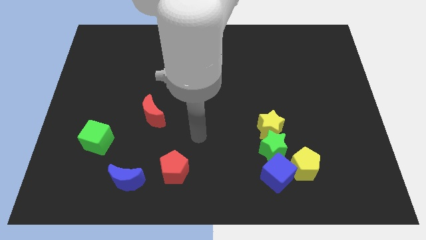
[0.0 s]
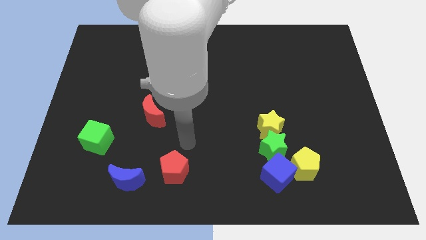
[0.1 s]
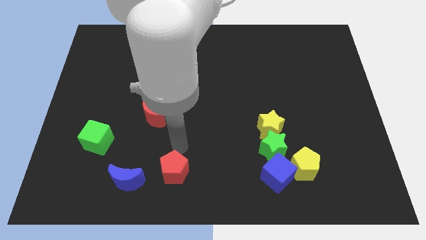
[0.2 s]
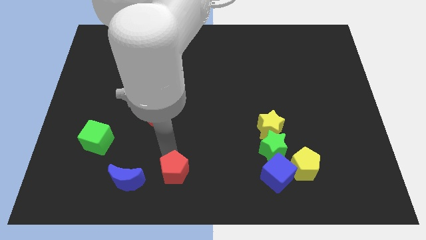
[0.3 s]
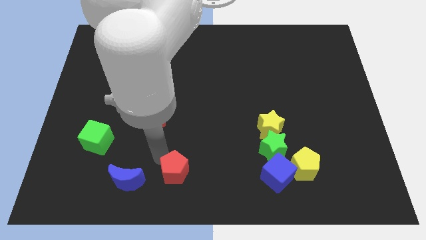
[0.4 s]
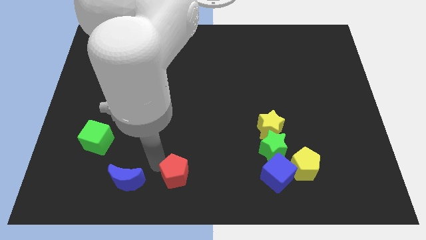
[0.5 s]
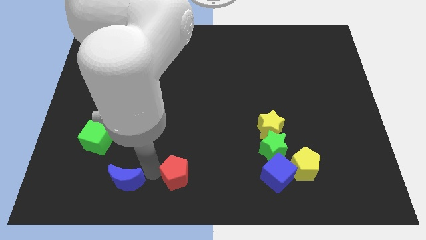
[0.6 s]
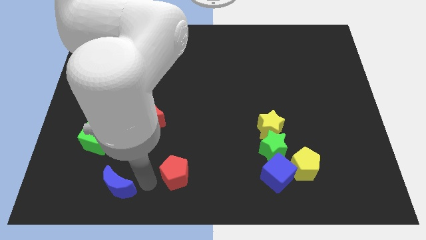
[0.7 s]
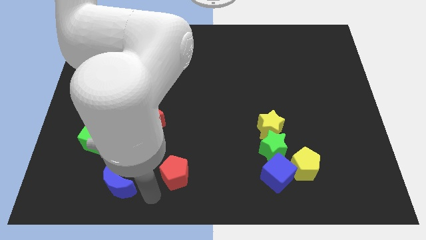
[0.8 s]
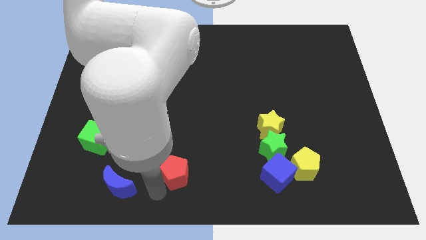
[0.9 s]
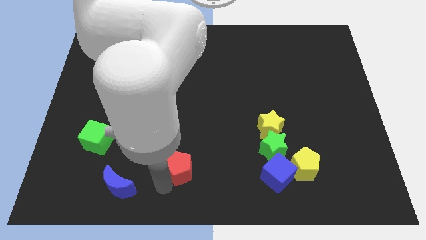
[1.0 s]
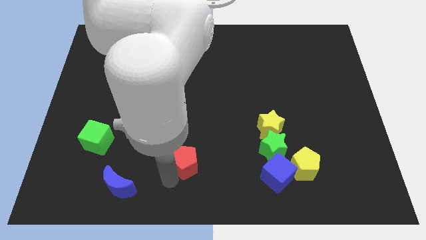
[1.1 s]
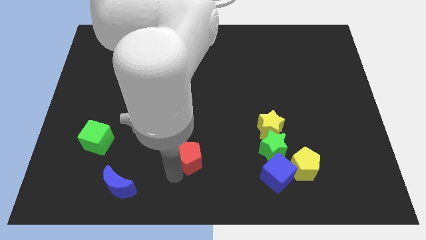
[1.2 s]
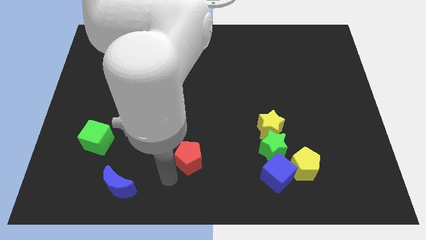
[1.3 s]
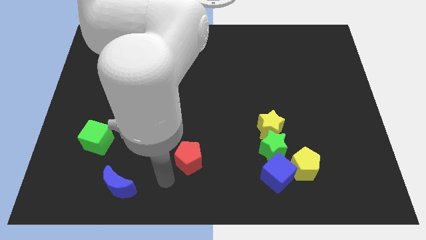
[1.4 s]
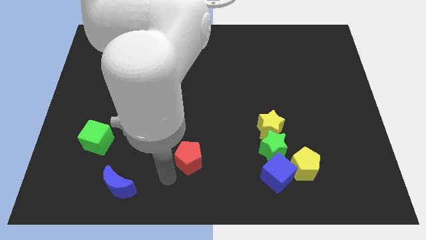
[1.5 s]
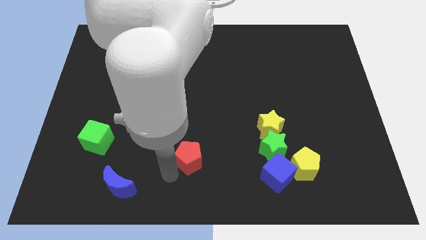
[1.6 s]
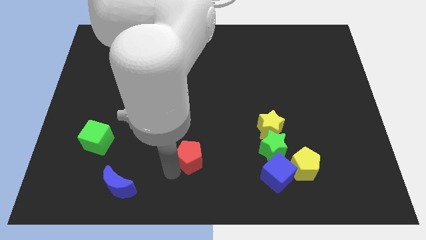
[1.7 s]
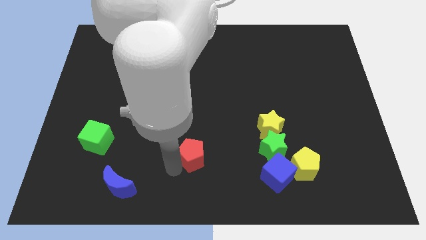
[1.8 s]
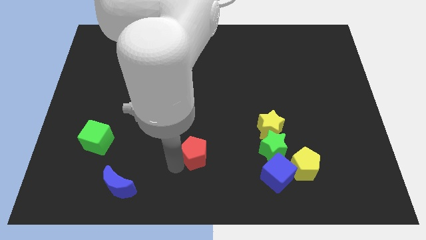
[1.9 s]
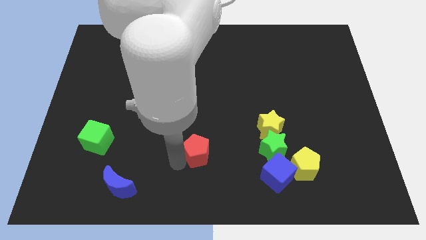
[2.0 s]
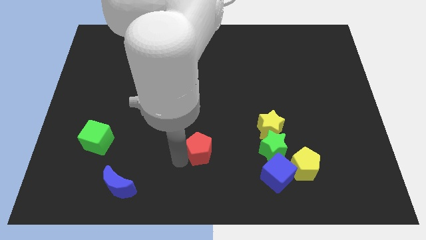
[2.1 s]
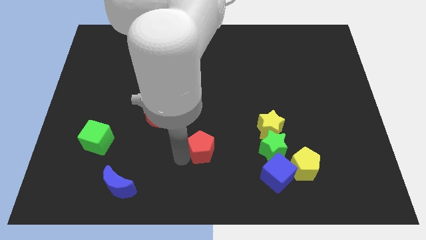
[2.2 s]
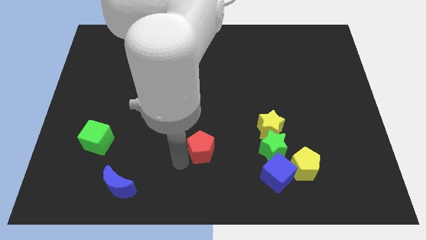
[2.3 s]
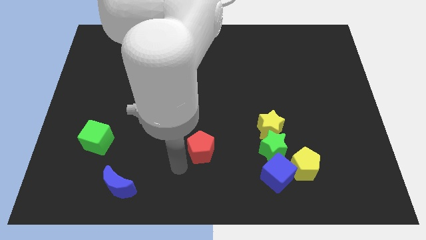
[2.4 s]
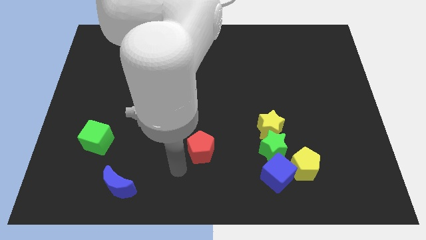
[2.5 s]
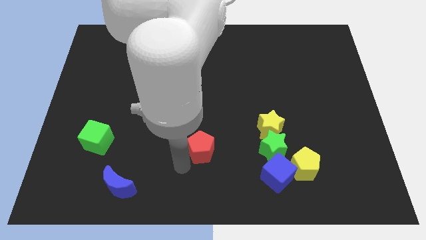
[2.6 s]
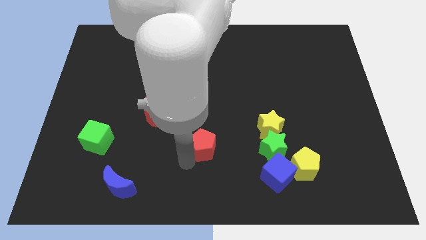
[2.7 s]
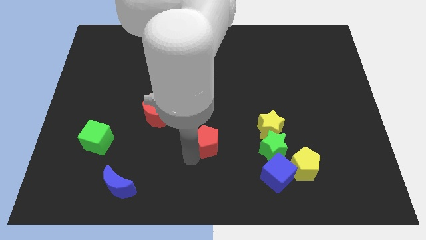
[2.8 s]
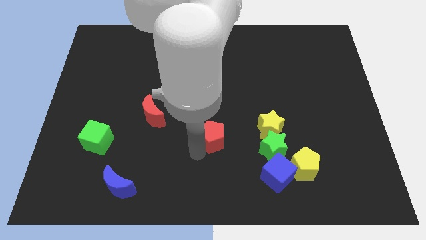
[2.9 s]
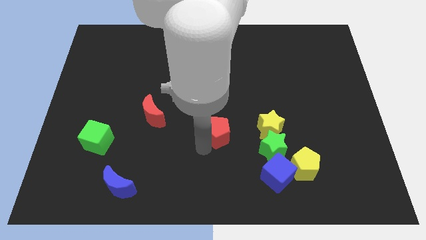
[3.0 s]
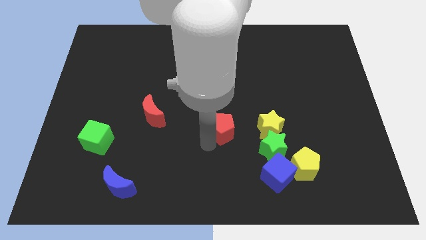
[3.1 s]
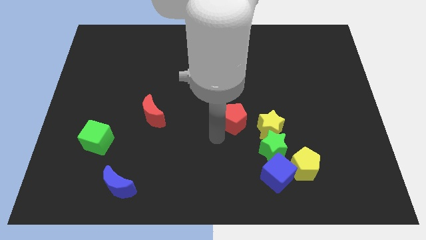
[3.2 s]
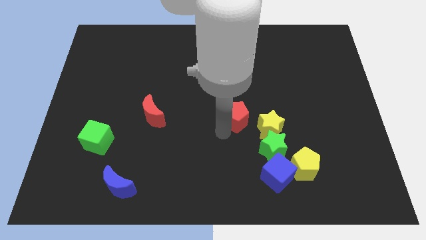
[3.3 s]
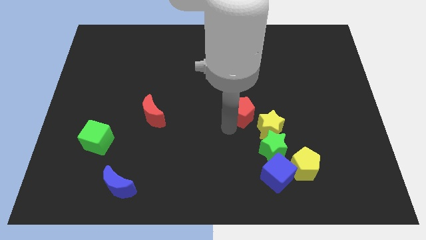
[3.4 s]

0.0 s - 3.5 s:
slide the red pentagon diagonally upwards and right

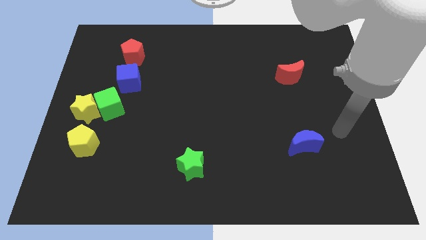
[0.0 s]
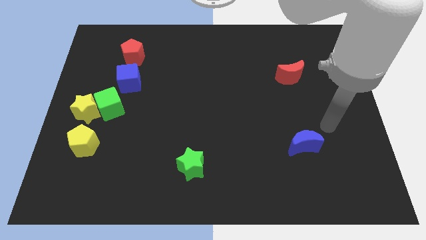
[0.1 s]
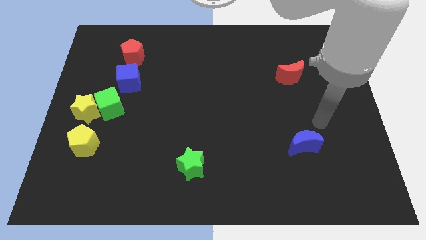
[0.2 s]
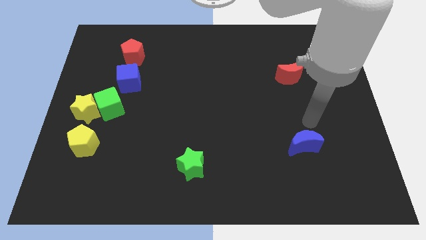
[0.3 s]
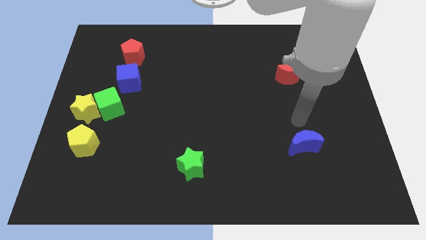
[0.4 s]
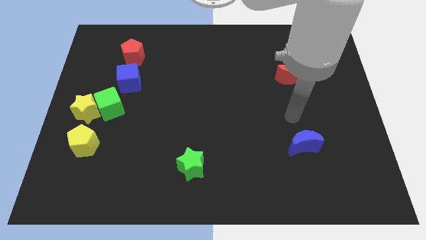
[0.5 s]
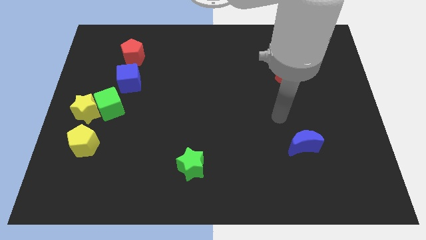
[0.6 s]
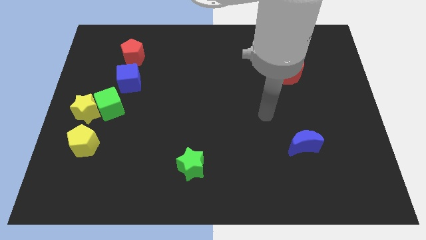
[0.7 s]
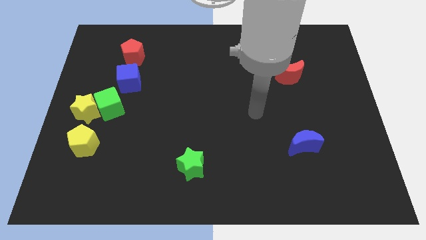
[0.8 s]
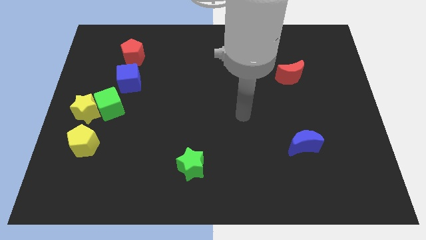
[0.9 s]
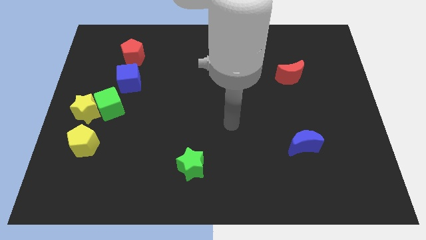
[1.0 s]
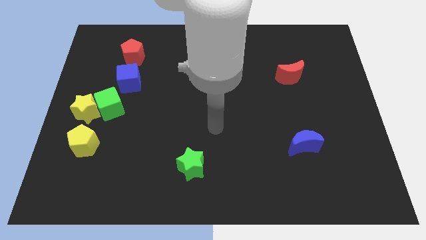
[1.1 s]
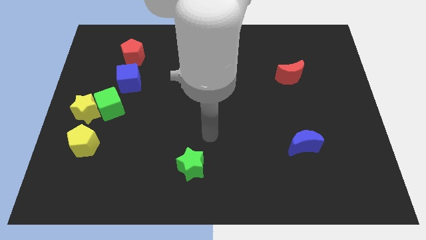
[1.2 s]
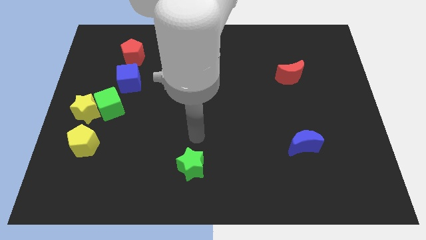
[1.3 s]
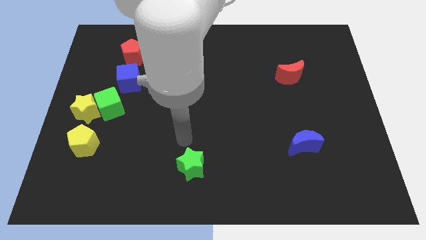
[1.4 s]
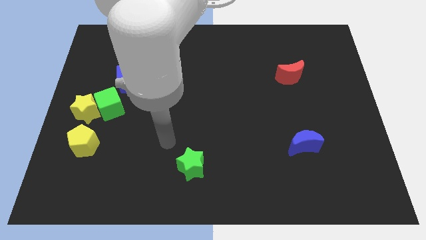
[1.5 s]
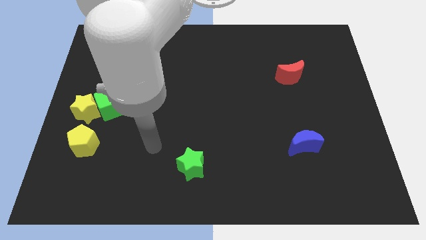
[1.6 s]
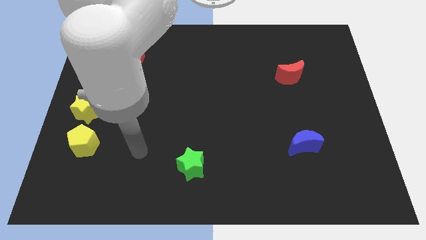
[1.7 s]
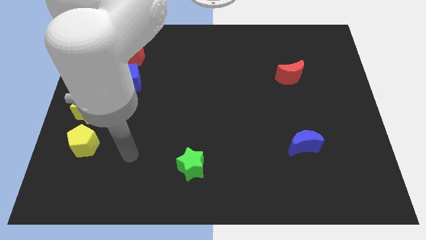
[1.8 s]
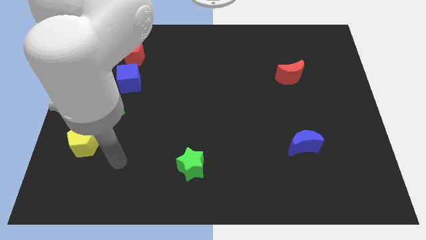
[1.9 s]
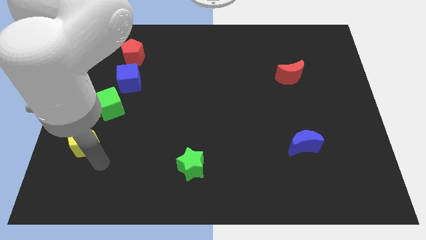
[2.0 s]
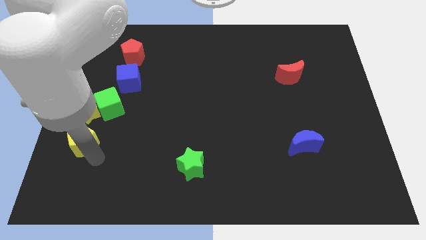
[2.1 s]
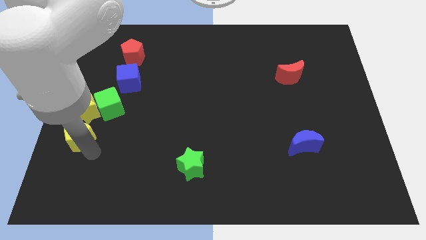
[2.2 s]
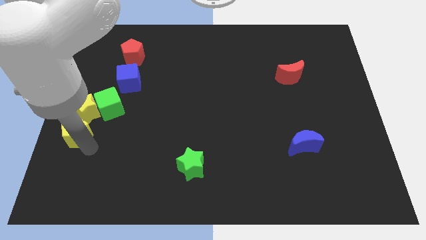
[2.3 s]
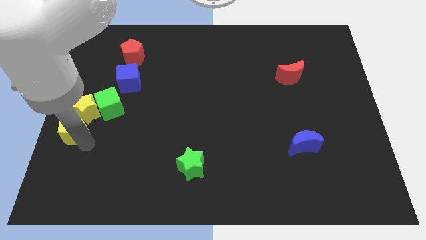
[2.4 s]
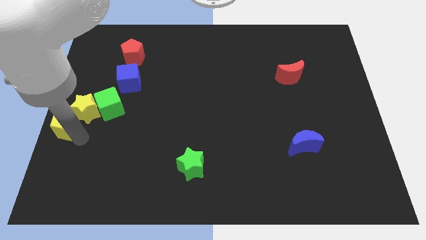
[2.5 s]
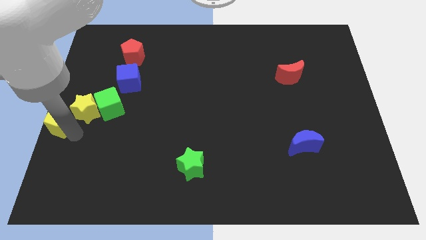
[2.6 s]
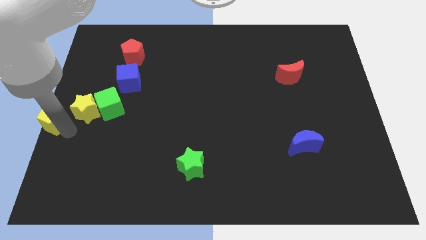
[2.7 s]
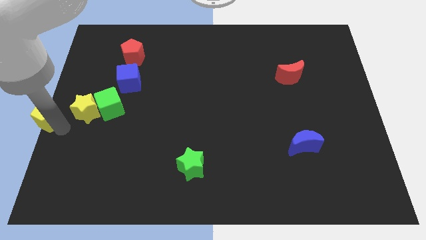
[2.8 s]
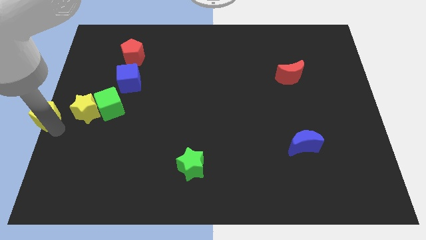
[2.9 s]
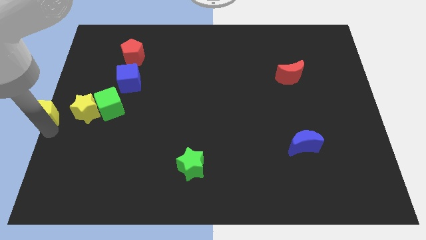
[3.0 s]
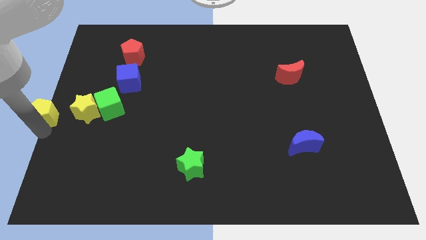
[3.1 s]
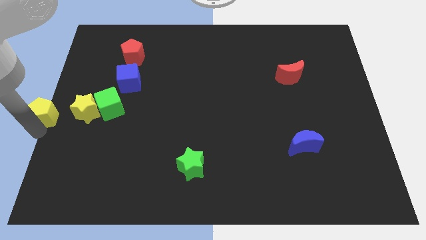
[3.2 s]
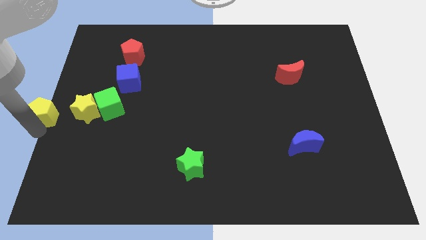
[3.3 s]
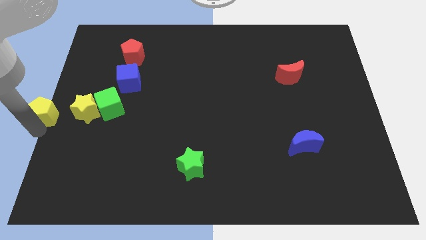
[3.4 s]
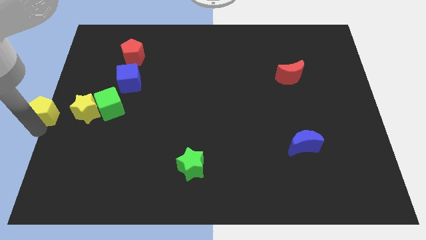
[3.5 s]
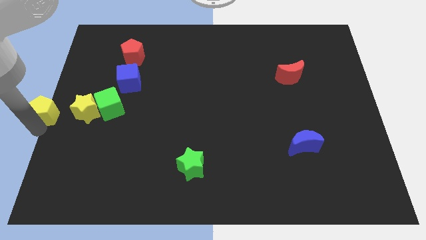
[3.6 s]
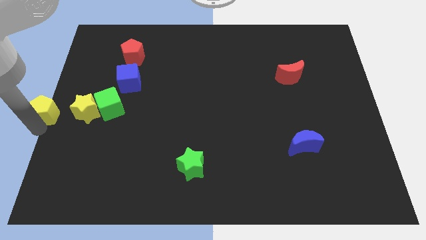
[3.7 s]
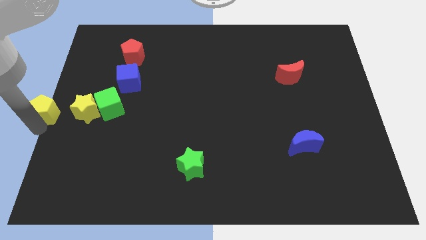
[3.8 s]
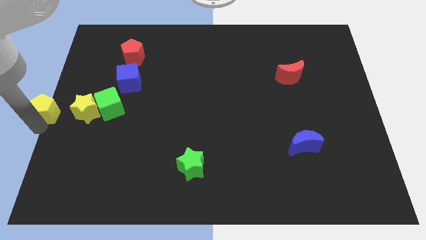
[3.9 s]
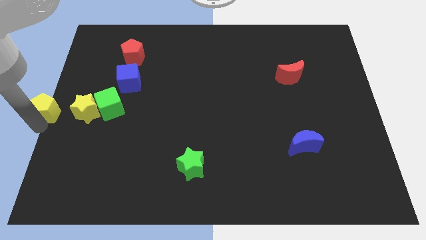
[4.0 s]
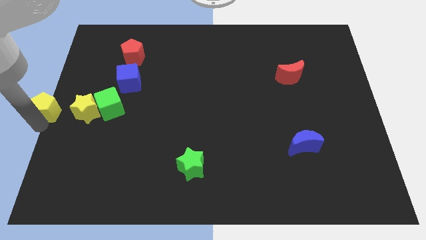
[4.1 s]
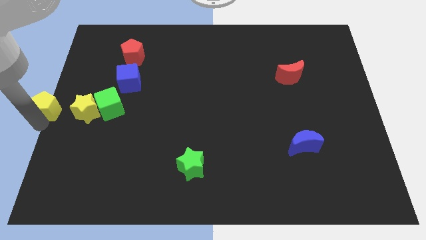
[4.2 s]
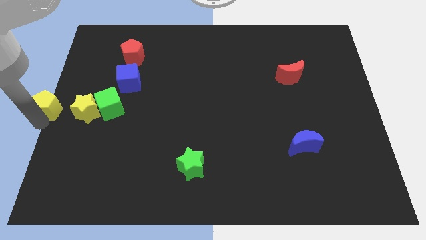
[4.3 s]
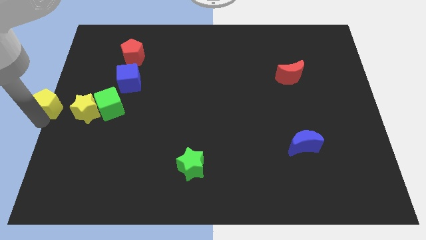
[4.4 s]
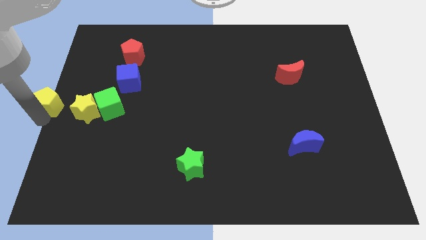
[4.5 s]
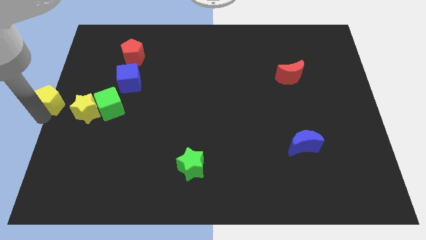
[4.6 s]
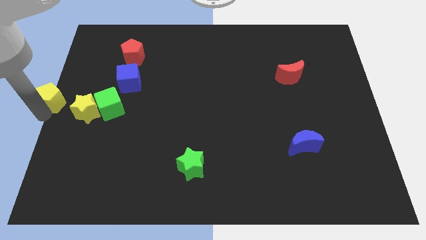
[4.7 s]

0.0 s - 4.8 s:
slightly push the yellow pentagon up
